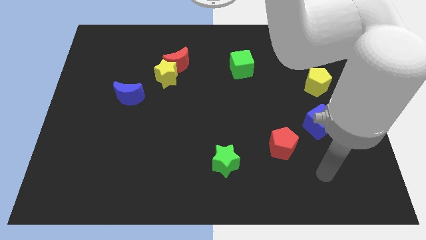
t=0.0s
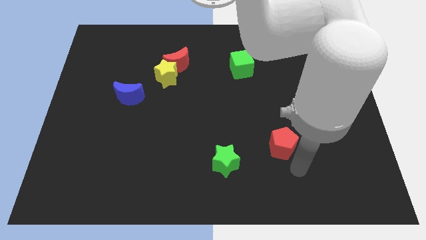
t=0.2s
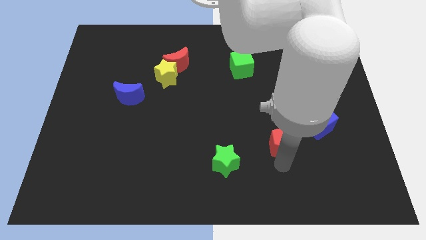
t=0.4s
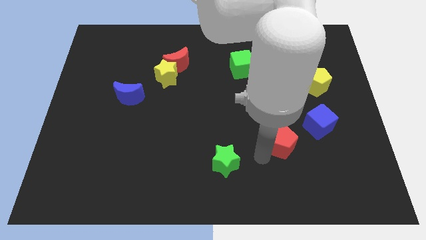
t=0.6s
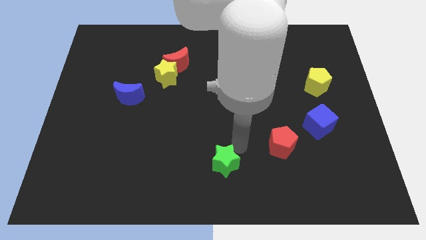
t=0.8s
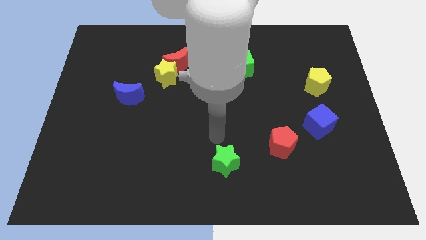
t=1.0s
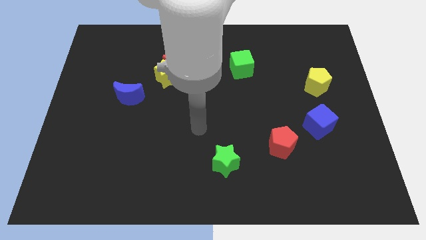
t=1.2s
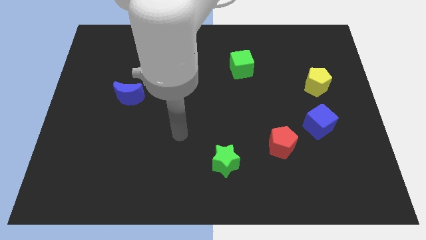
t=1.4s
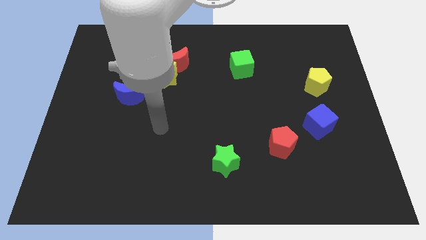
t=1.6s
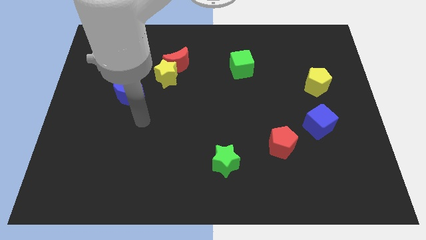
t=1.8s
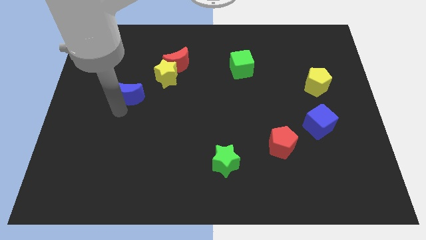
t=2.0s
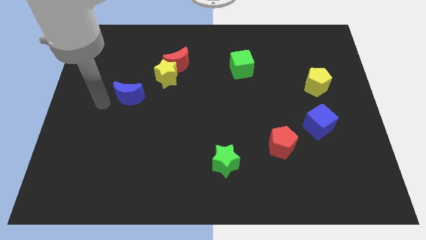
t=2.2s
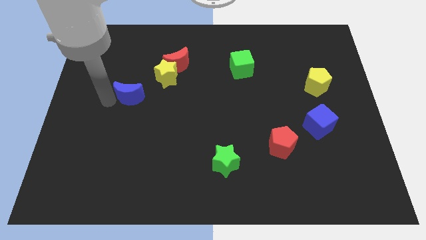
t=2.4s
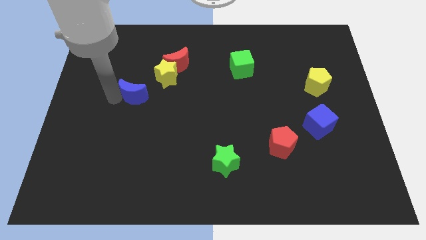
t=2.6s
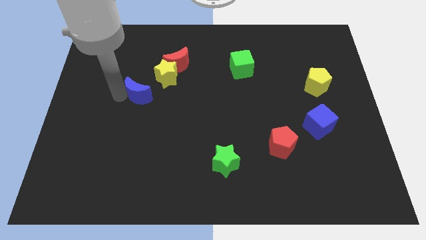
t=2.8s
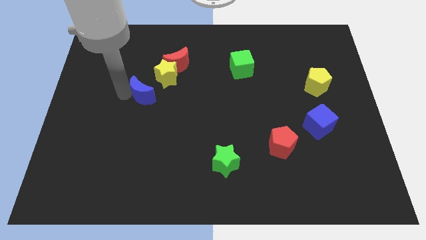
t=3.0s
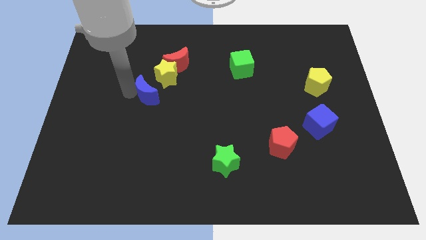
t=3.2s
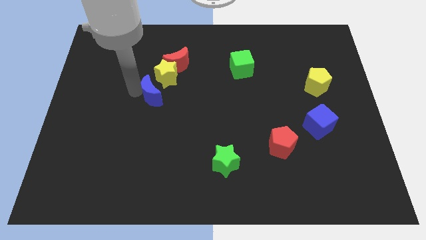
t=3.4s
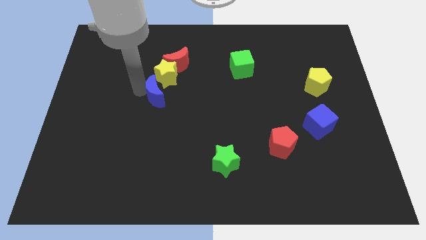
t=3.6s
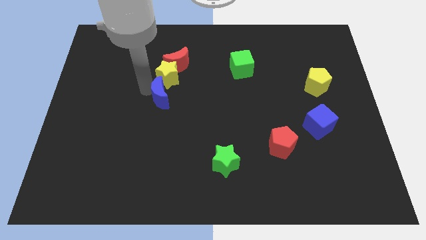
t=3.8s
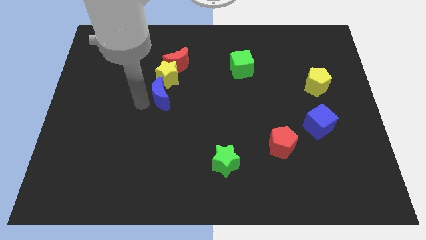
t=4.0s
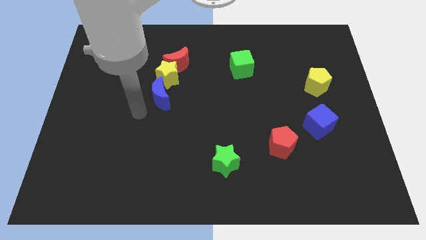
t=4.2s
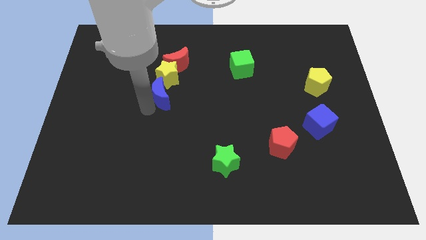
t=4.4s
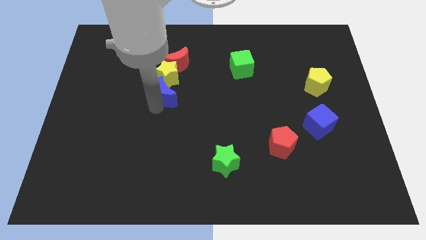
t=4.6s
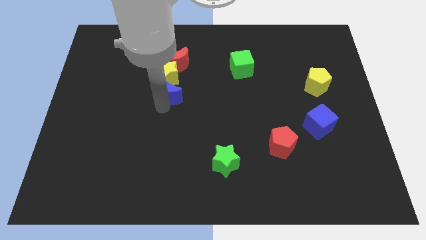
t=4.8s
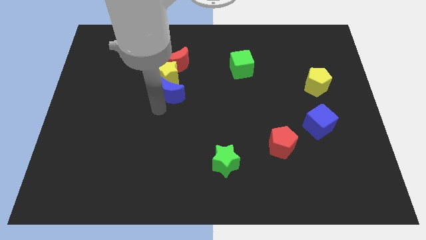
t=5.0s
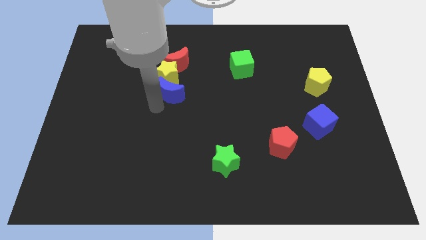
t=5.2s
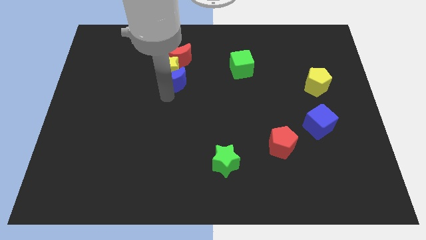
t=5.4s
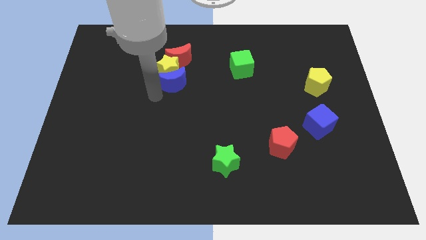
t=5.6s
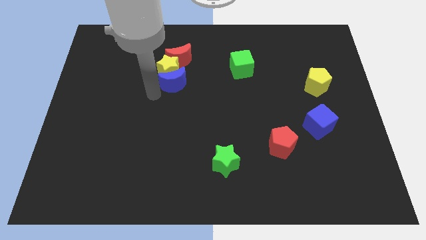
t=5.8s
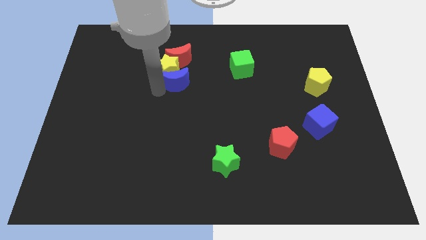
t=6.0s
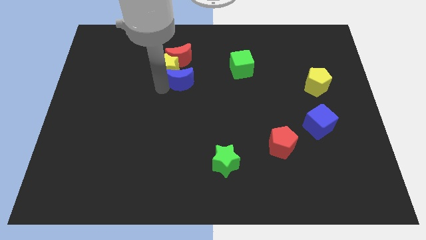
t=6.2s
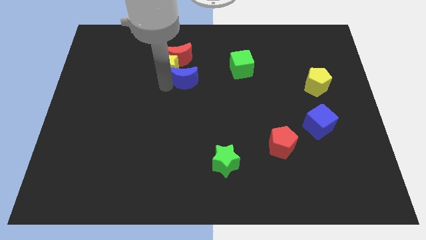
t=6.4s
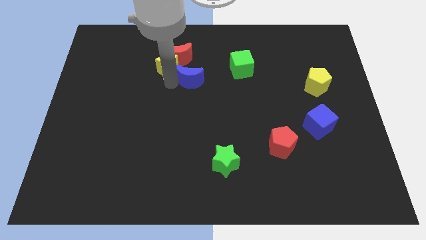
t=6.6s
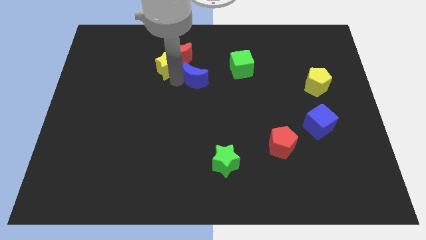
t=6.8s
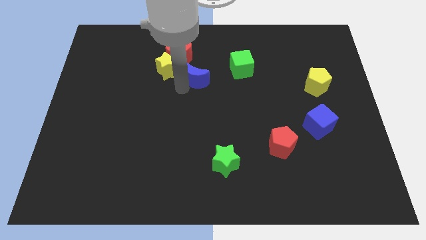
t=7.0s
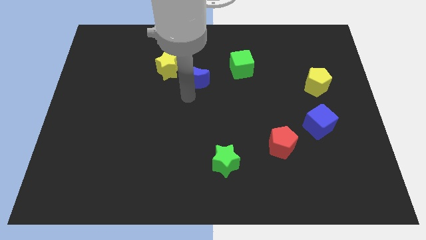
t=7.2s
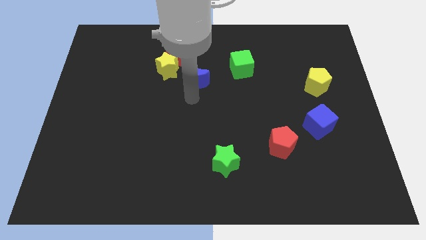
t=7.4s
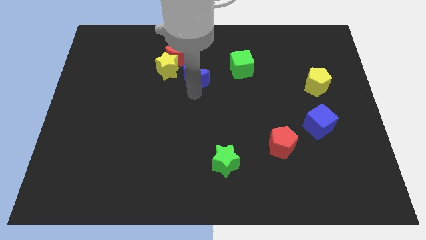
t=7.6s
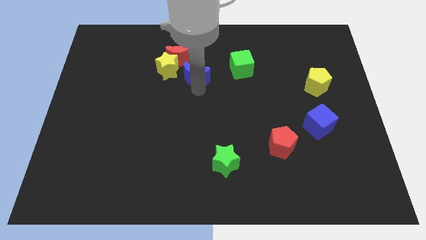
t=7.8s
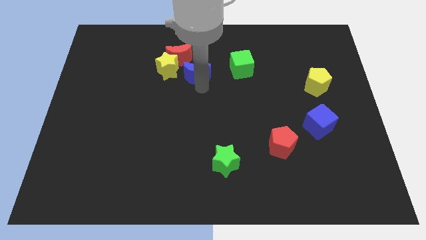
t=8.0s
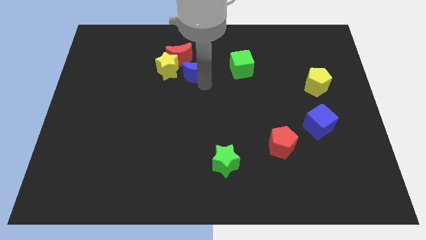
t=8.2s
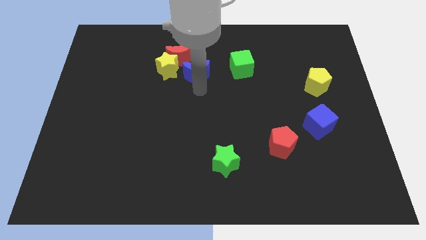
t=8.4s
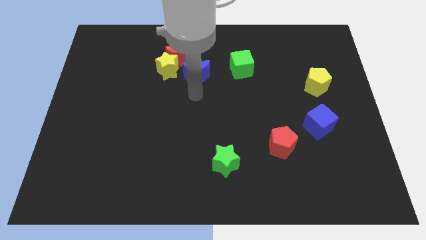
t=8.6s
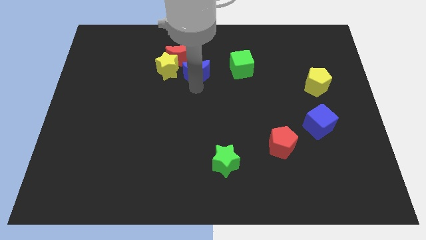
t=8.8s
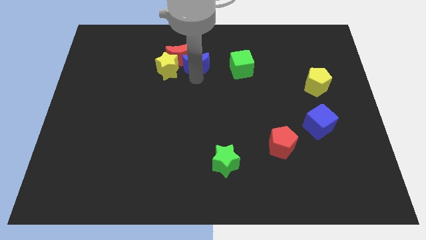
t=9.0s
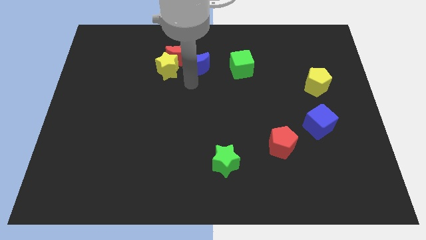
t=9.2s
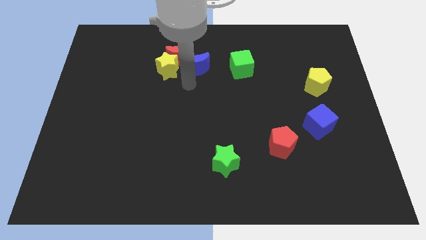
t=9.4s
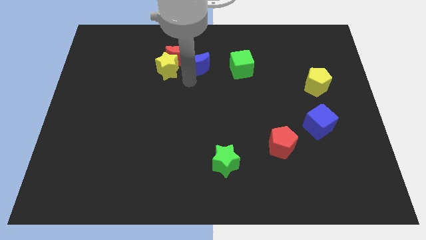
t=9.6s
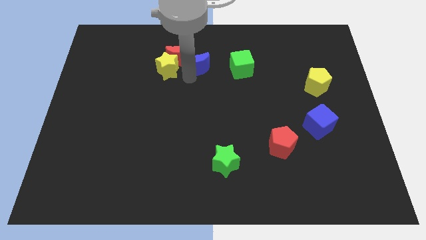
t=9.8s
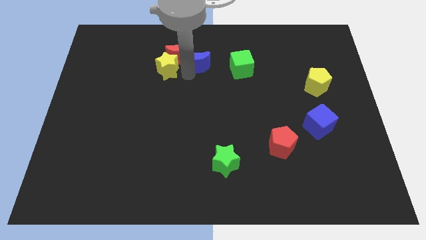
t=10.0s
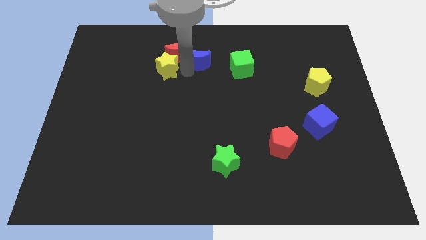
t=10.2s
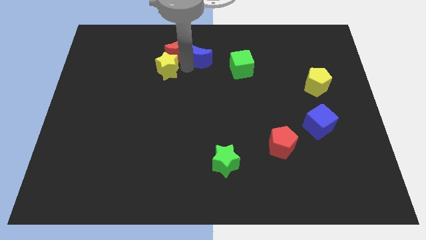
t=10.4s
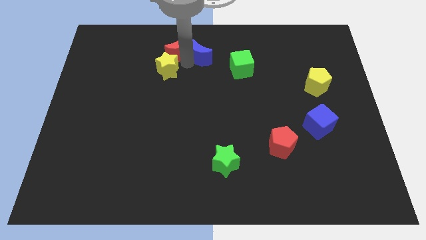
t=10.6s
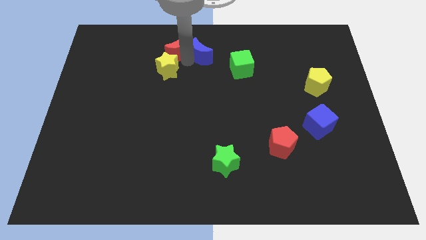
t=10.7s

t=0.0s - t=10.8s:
slide the blue moon to the top side

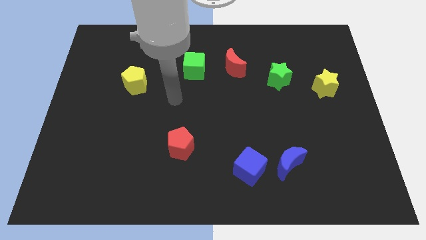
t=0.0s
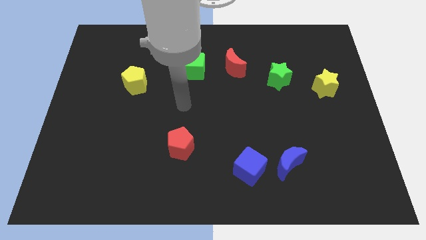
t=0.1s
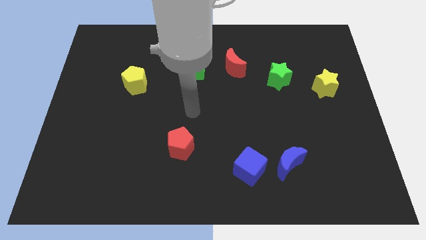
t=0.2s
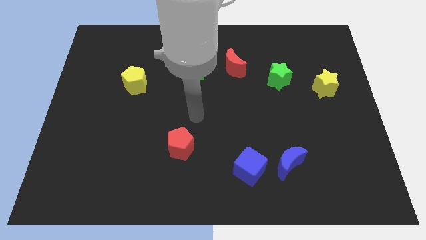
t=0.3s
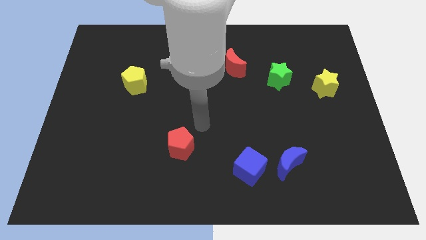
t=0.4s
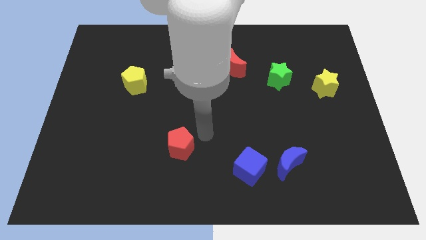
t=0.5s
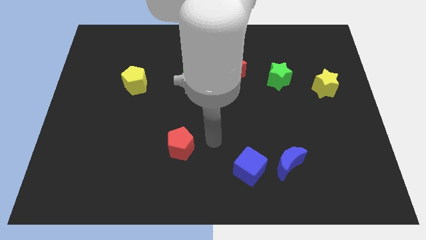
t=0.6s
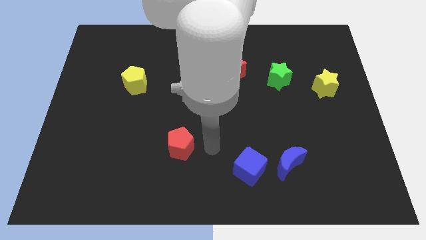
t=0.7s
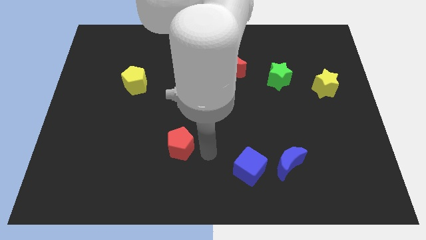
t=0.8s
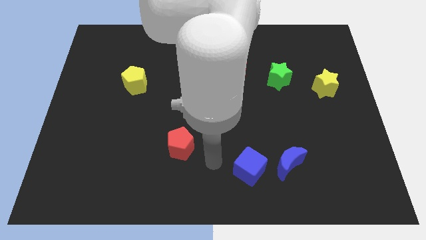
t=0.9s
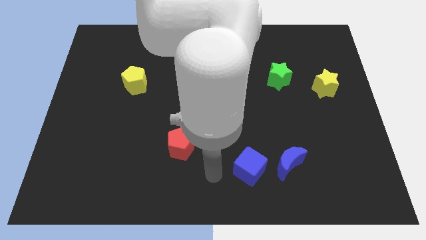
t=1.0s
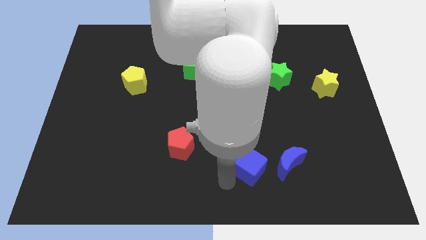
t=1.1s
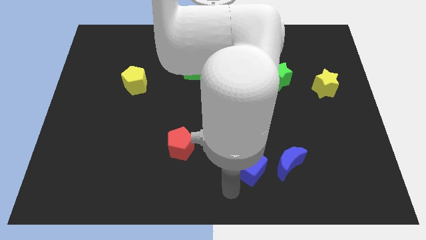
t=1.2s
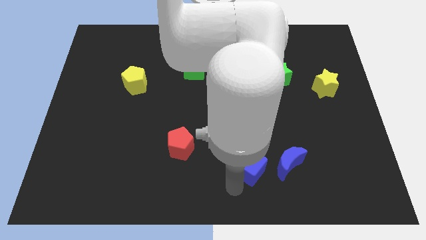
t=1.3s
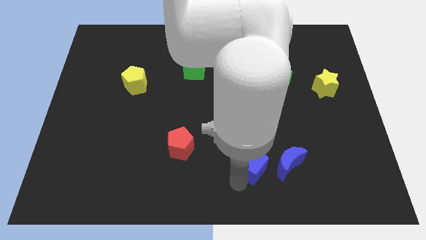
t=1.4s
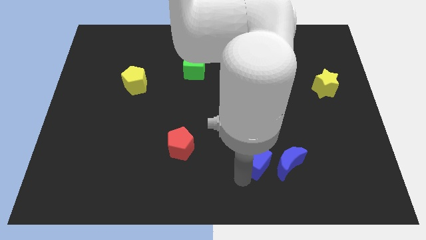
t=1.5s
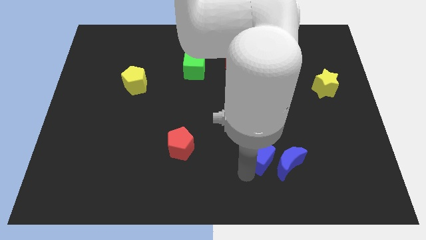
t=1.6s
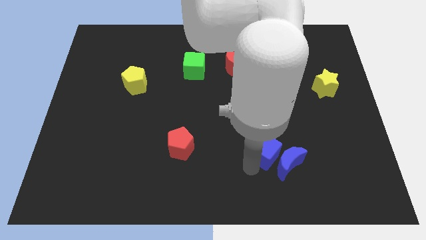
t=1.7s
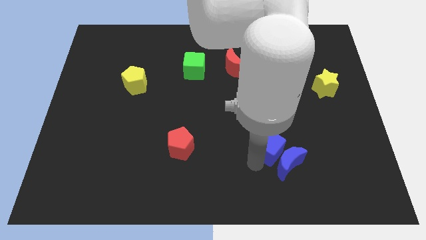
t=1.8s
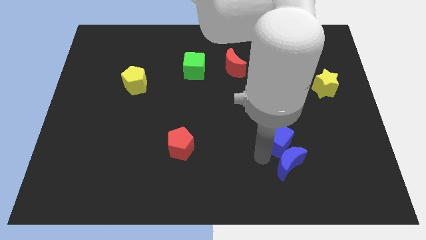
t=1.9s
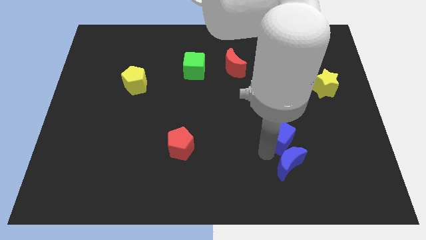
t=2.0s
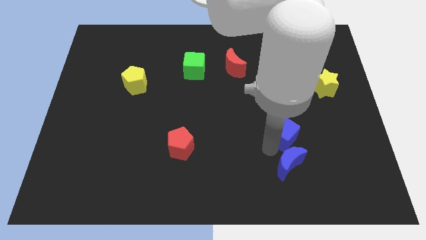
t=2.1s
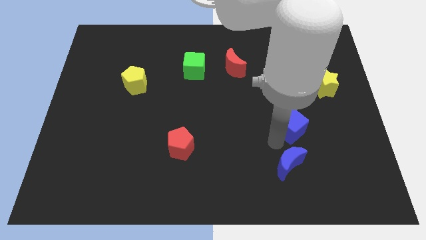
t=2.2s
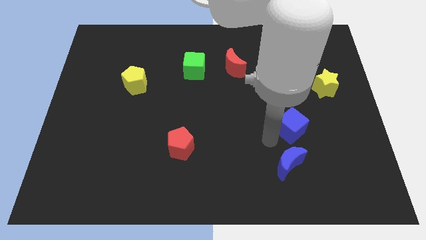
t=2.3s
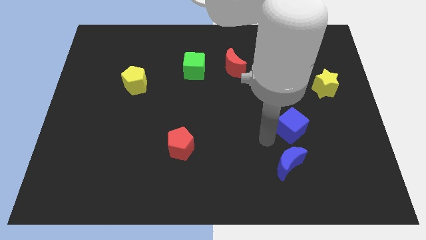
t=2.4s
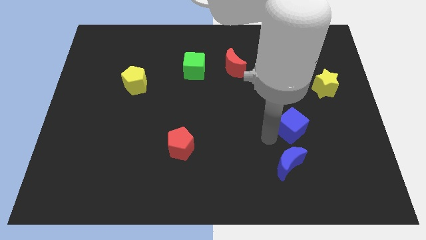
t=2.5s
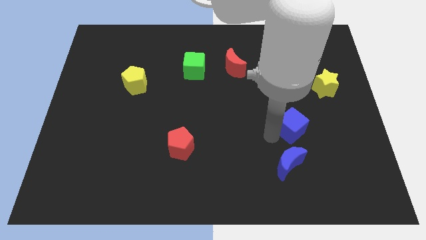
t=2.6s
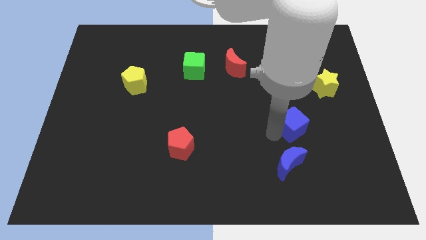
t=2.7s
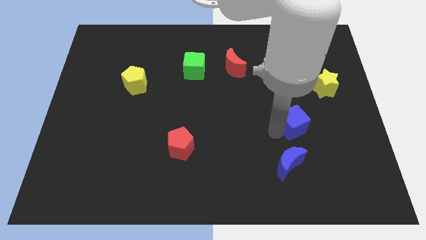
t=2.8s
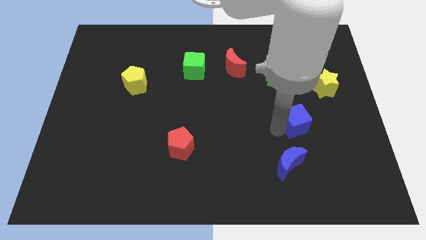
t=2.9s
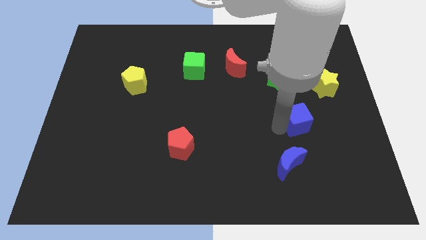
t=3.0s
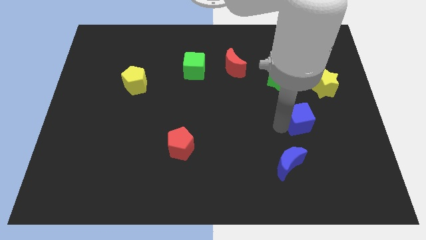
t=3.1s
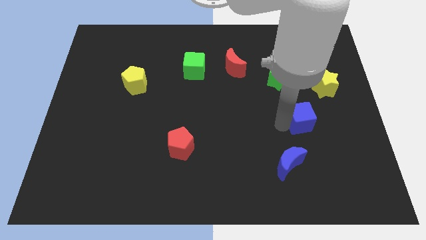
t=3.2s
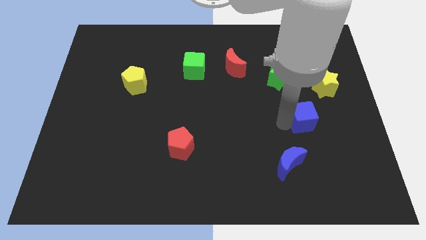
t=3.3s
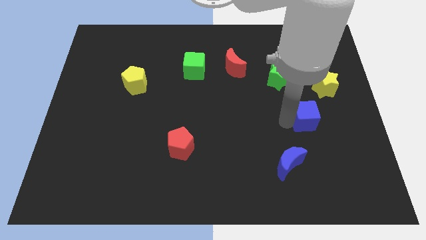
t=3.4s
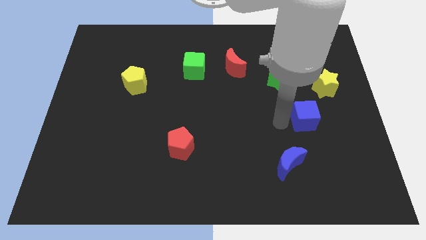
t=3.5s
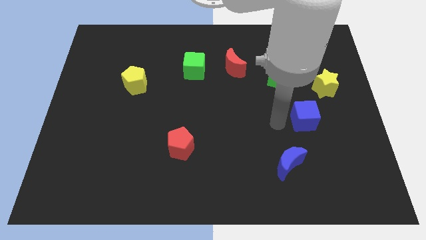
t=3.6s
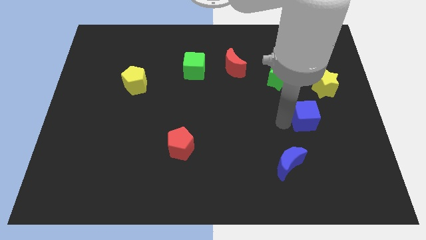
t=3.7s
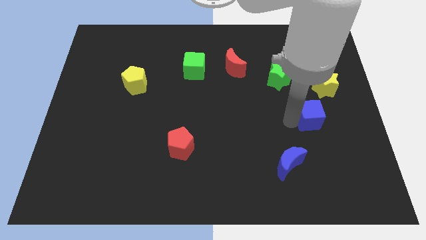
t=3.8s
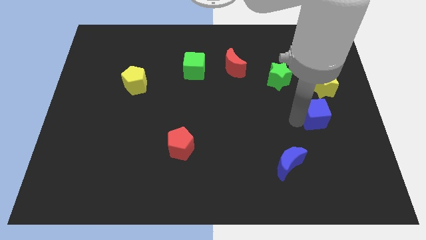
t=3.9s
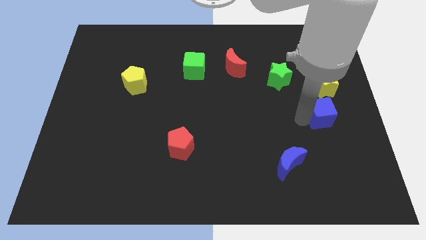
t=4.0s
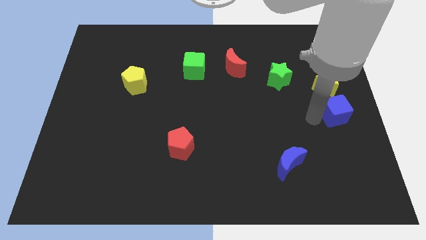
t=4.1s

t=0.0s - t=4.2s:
slide the blue cube to the right side of the board
